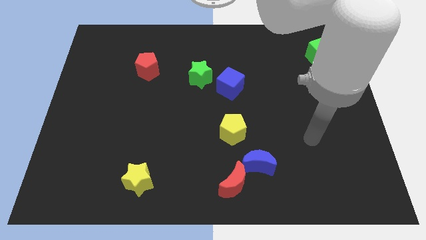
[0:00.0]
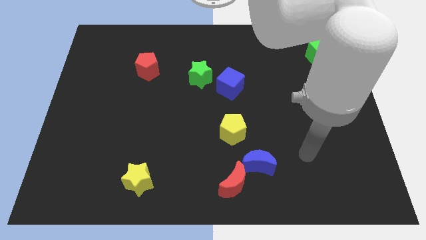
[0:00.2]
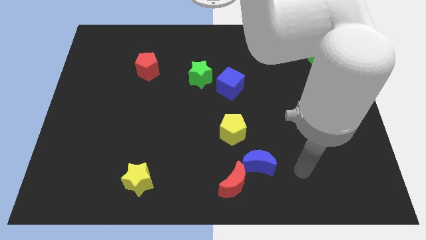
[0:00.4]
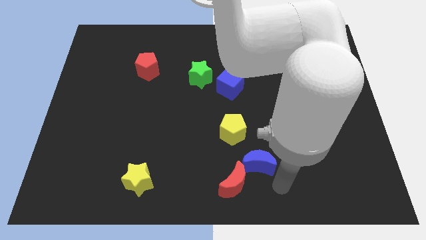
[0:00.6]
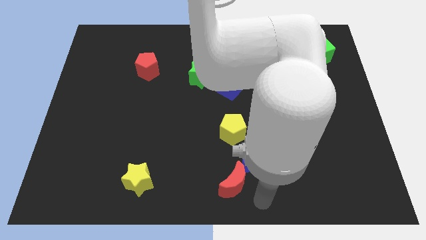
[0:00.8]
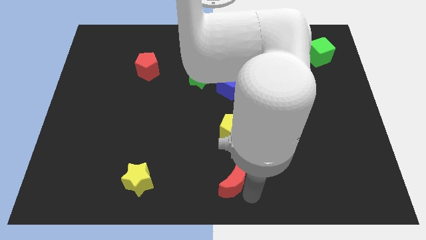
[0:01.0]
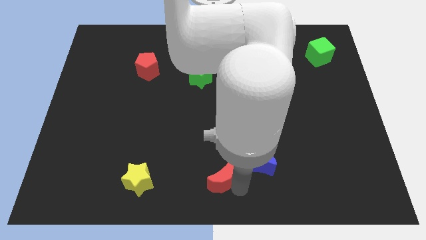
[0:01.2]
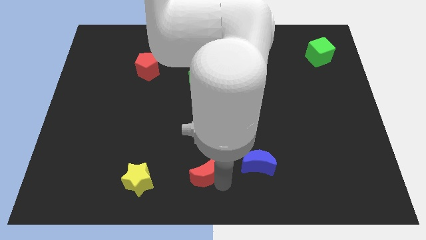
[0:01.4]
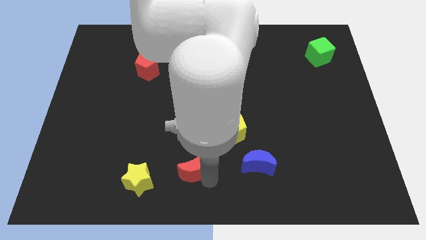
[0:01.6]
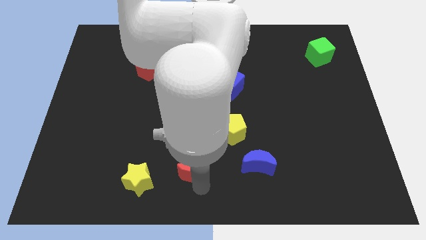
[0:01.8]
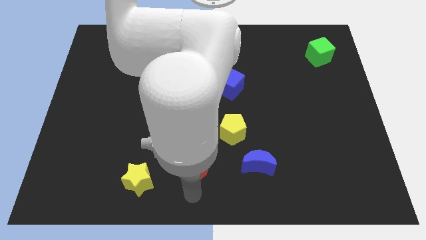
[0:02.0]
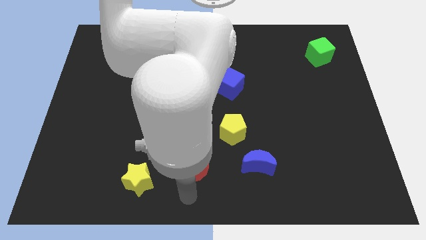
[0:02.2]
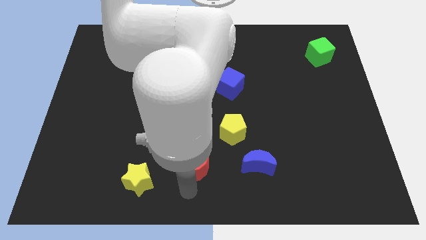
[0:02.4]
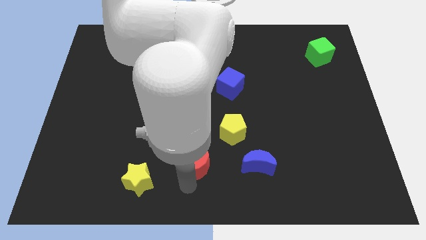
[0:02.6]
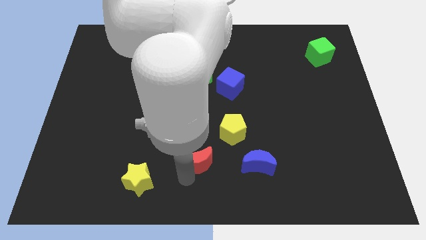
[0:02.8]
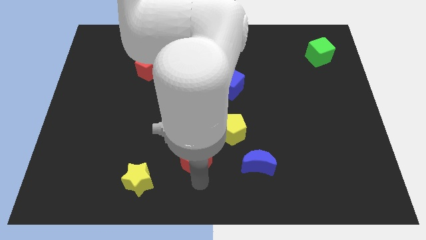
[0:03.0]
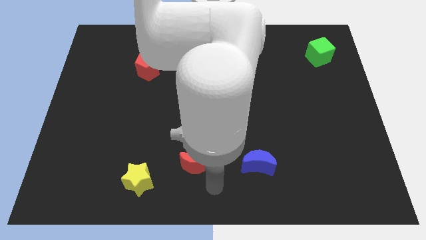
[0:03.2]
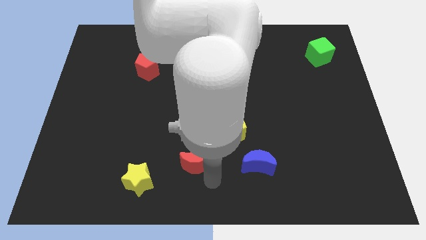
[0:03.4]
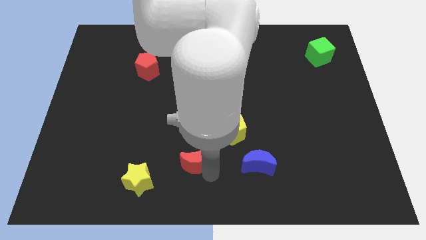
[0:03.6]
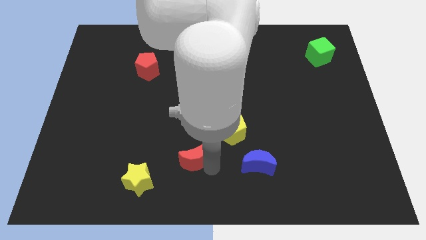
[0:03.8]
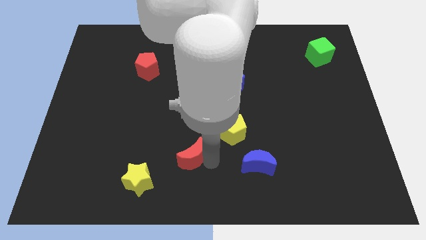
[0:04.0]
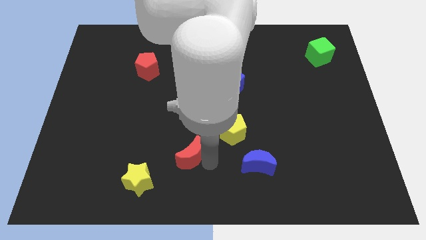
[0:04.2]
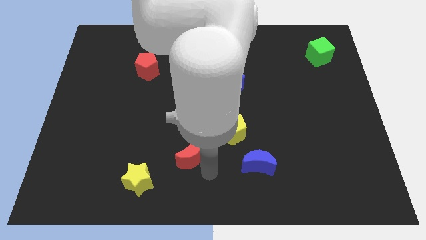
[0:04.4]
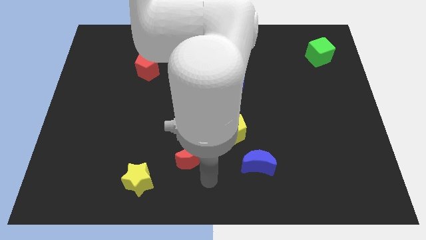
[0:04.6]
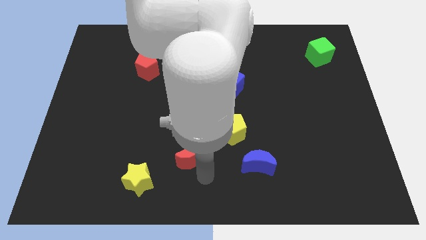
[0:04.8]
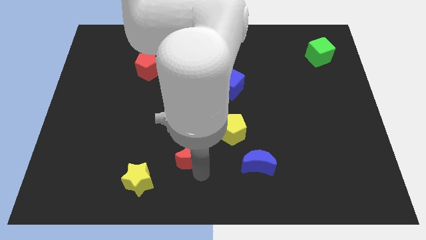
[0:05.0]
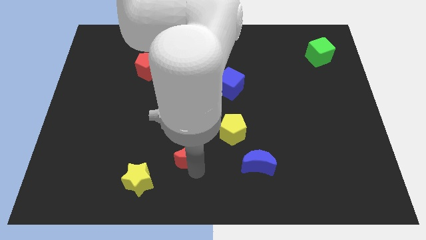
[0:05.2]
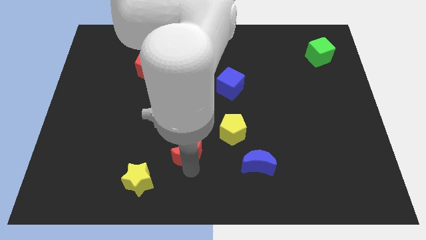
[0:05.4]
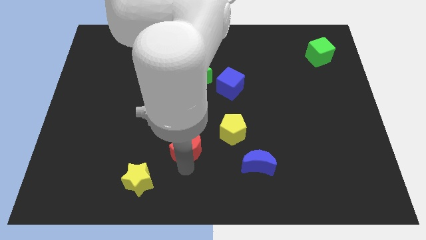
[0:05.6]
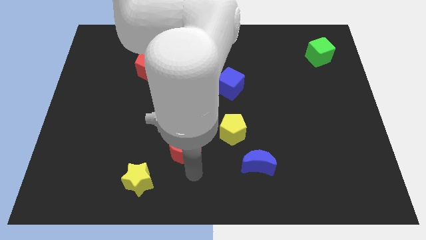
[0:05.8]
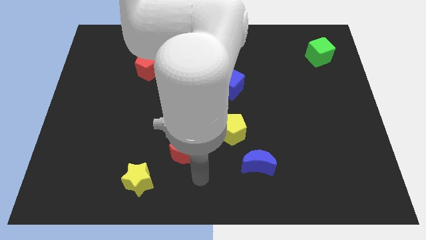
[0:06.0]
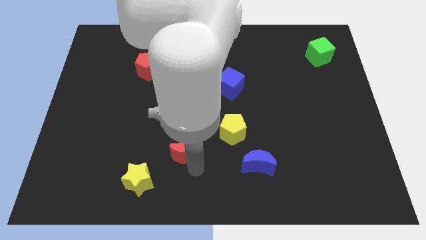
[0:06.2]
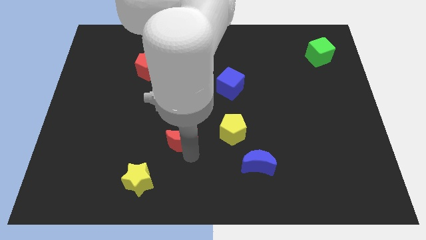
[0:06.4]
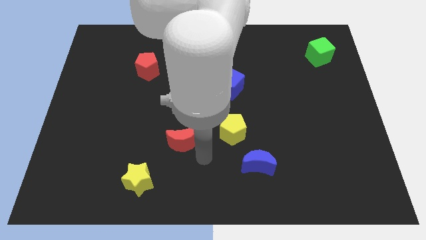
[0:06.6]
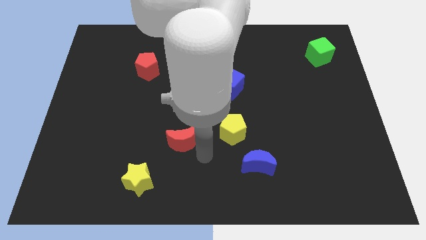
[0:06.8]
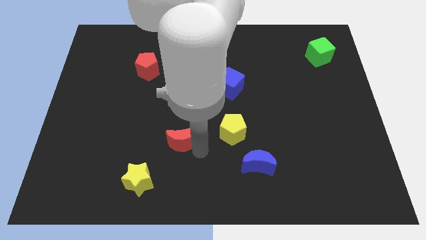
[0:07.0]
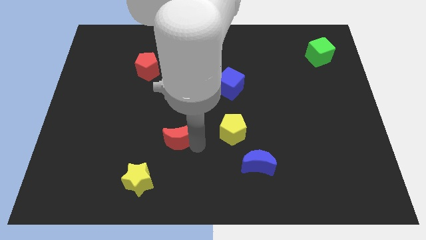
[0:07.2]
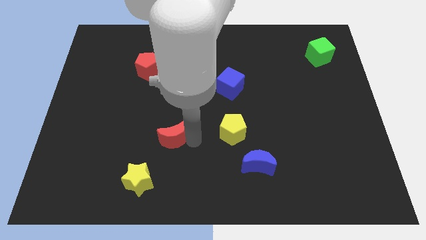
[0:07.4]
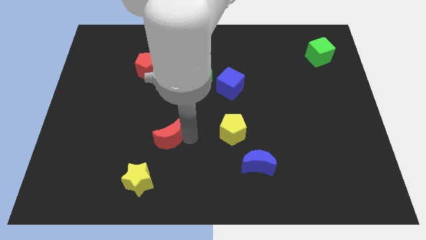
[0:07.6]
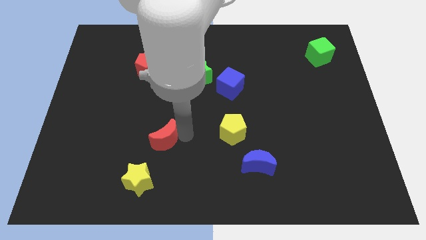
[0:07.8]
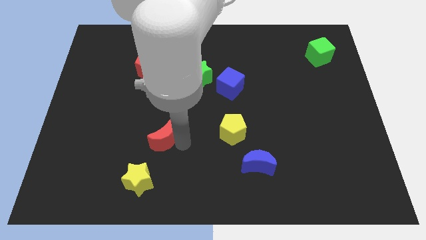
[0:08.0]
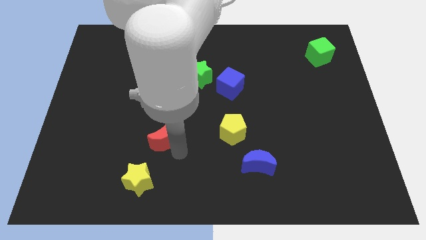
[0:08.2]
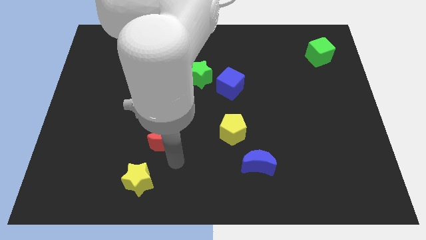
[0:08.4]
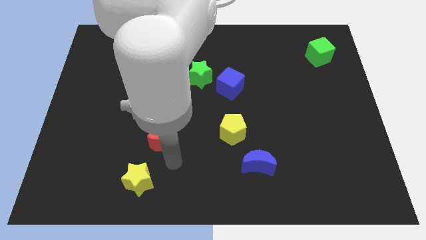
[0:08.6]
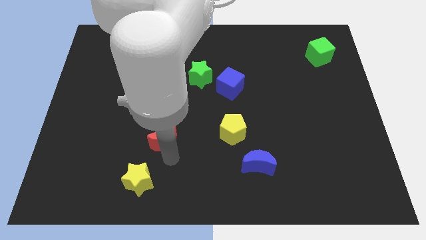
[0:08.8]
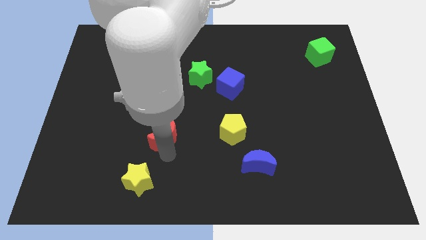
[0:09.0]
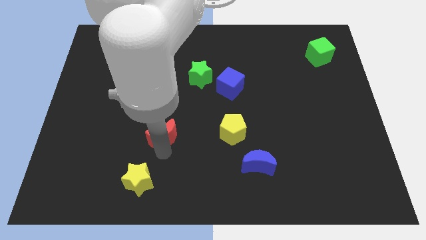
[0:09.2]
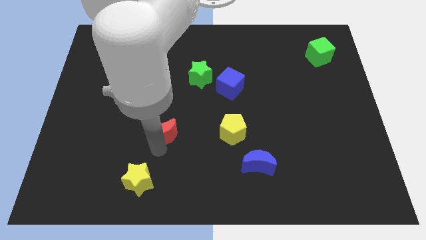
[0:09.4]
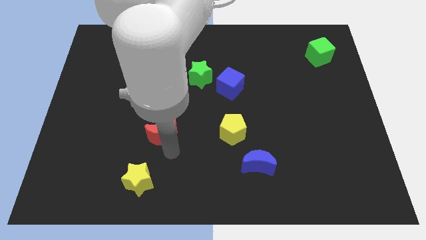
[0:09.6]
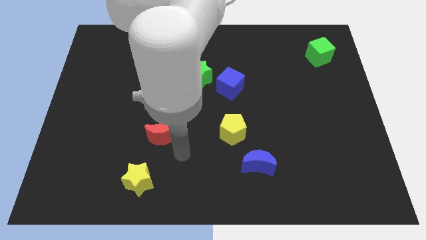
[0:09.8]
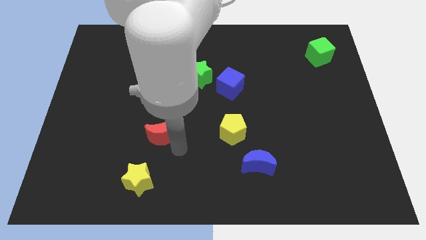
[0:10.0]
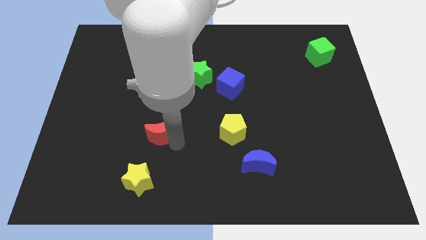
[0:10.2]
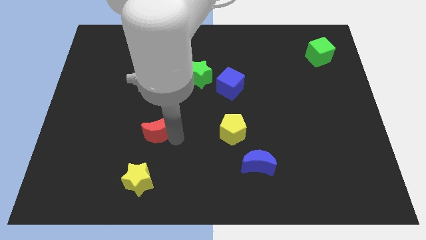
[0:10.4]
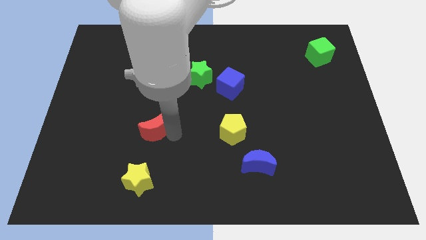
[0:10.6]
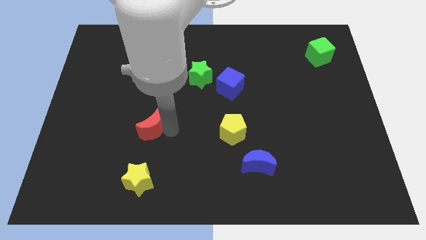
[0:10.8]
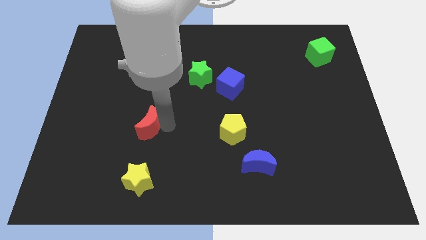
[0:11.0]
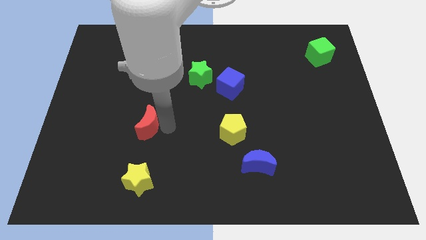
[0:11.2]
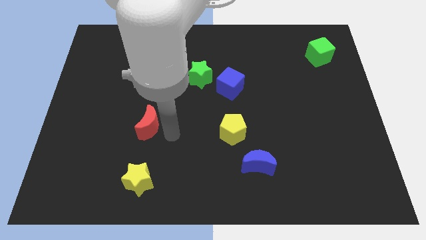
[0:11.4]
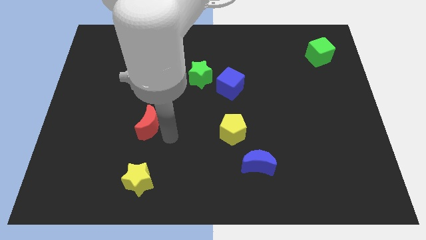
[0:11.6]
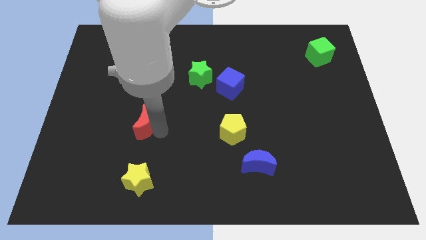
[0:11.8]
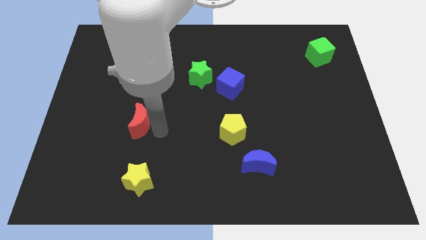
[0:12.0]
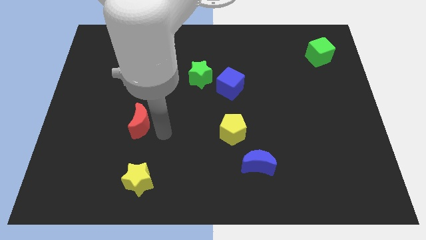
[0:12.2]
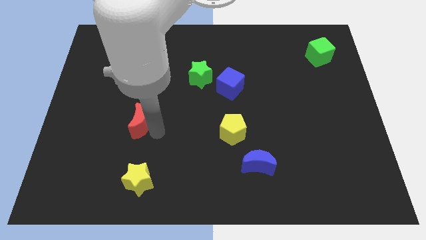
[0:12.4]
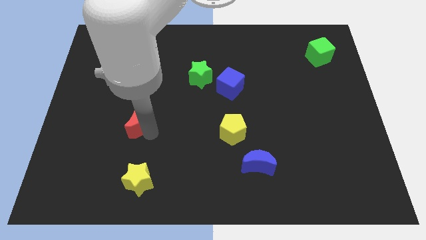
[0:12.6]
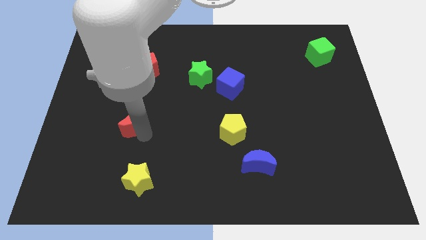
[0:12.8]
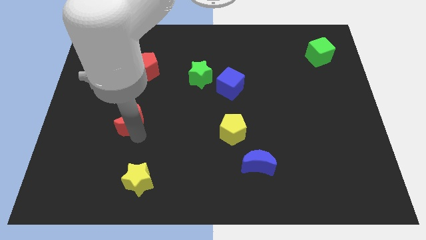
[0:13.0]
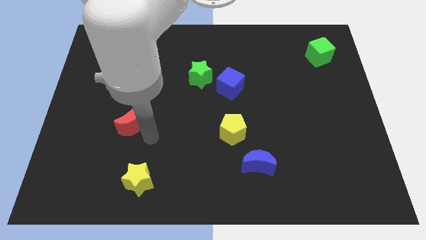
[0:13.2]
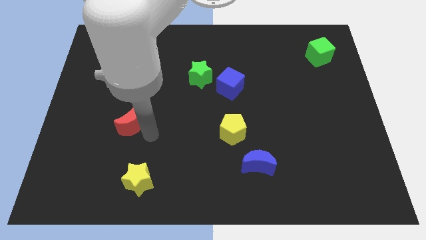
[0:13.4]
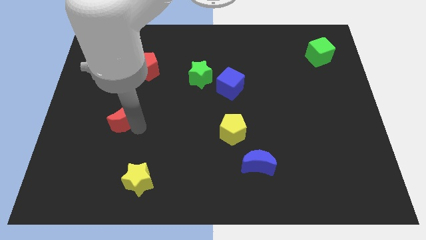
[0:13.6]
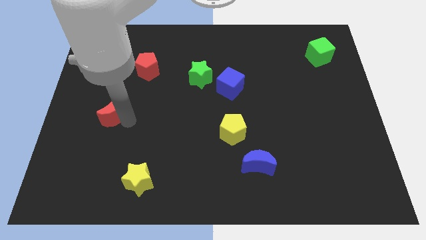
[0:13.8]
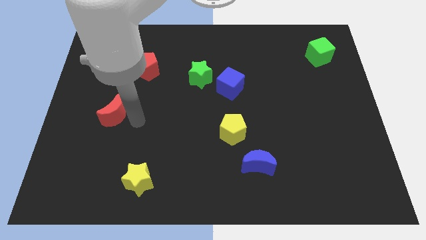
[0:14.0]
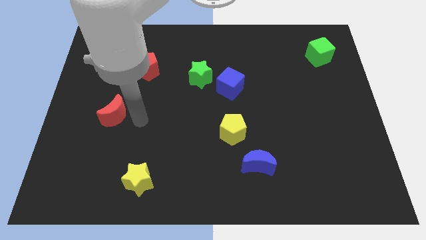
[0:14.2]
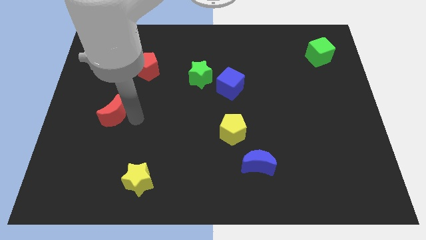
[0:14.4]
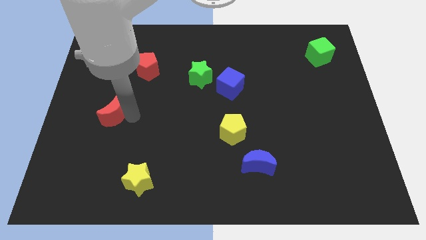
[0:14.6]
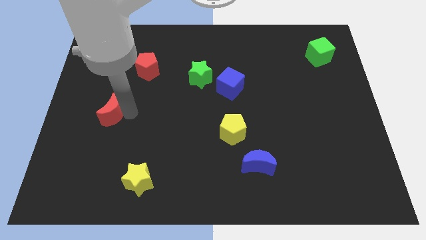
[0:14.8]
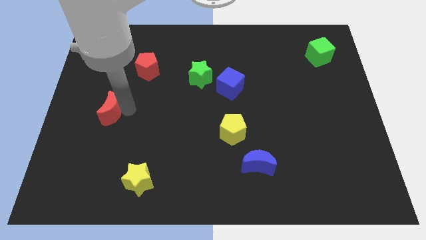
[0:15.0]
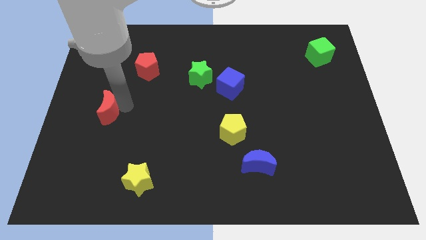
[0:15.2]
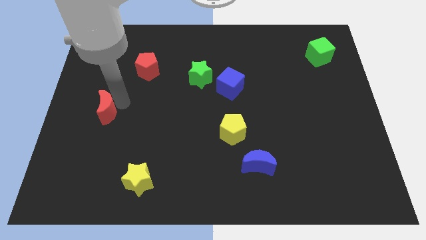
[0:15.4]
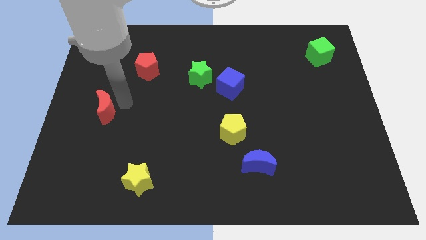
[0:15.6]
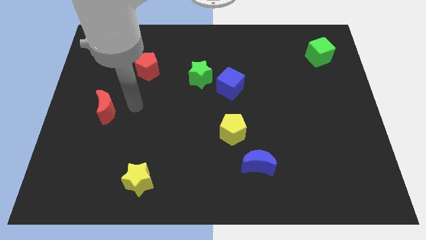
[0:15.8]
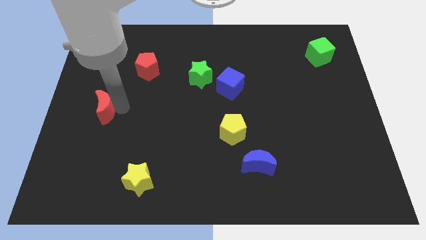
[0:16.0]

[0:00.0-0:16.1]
slide the red moon to the left side
